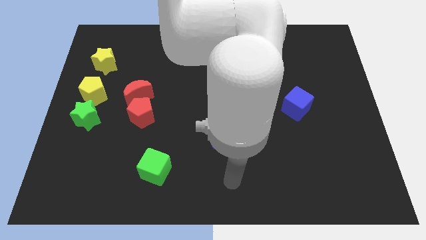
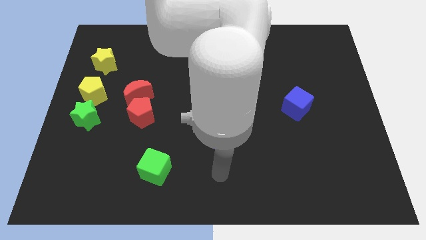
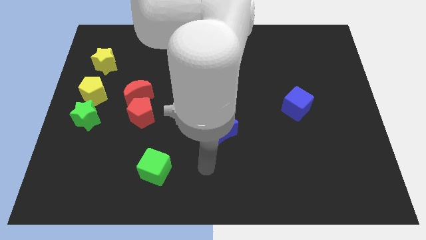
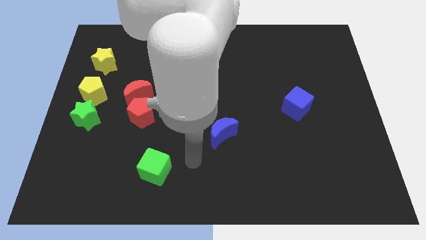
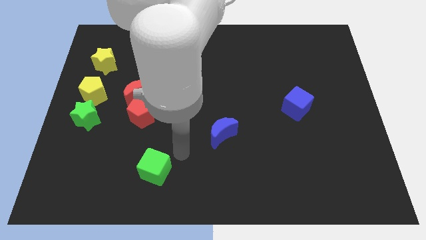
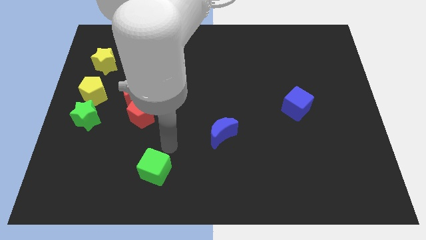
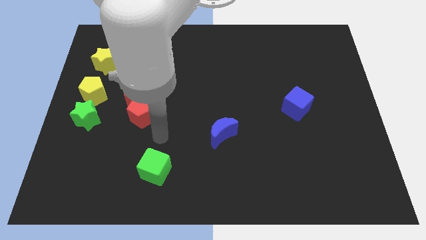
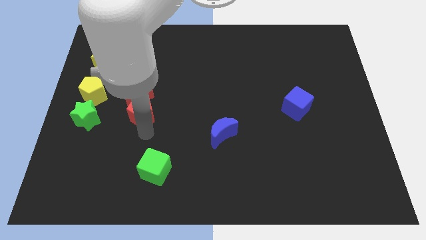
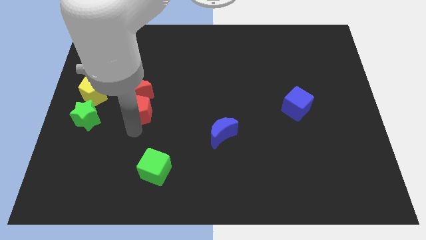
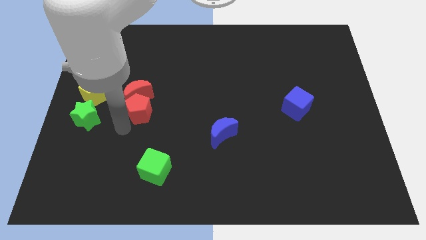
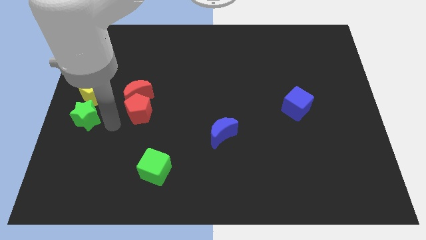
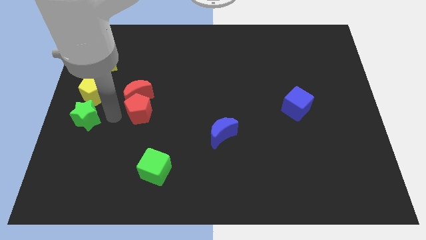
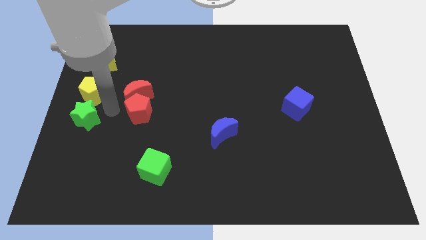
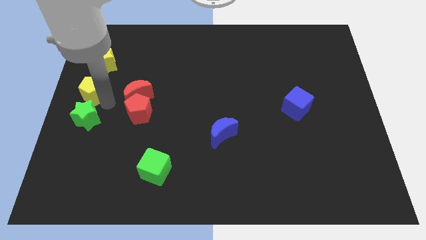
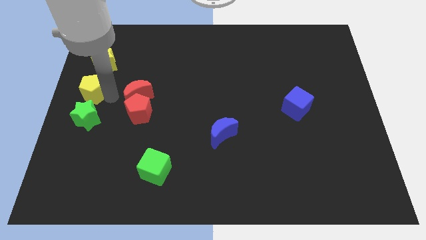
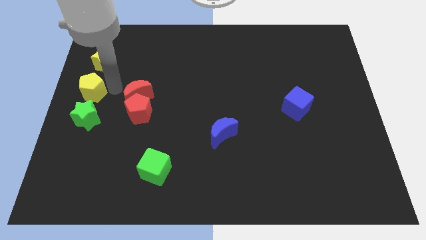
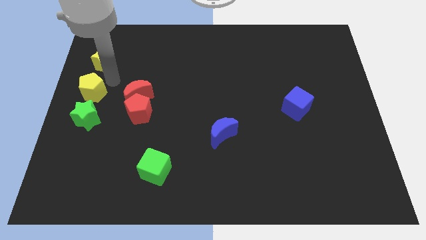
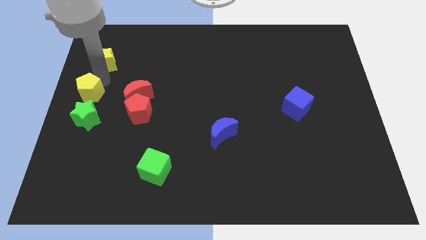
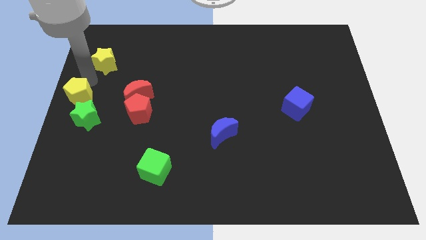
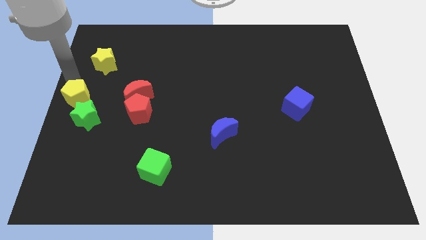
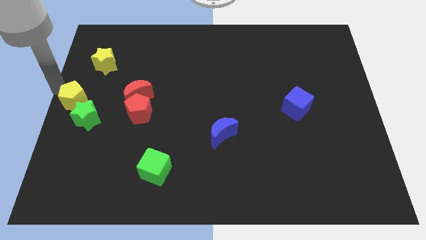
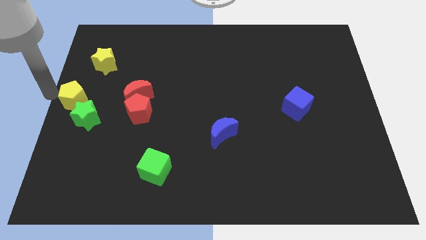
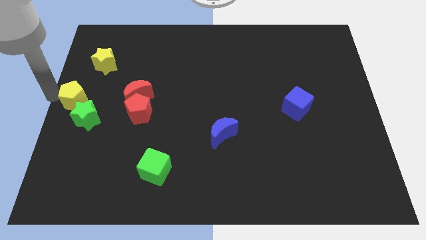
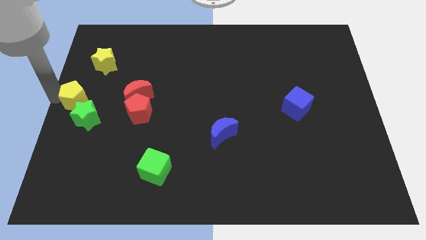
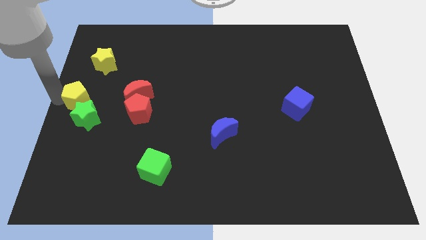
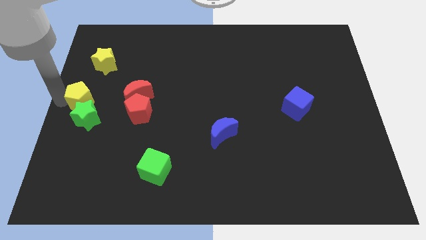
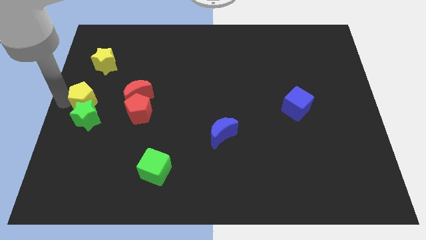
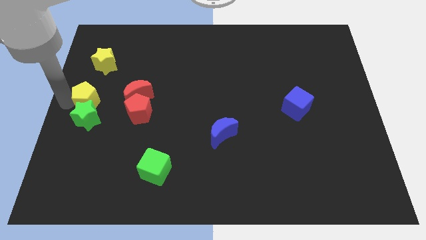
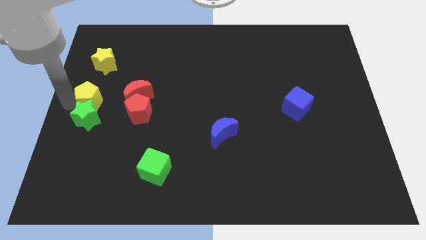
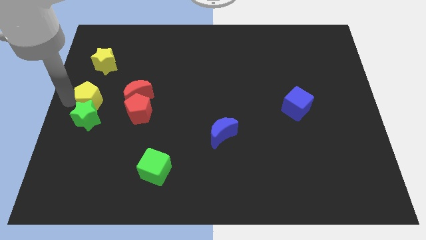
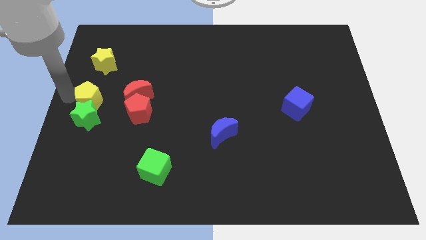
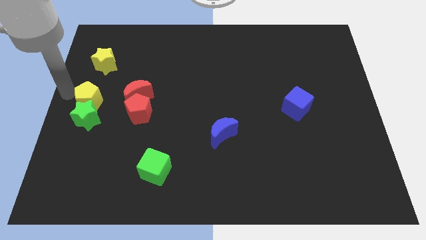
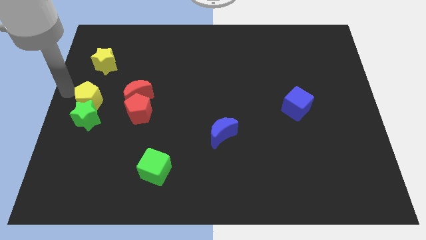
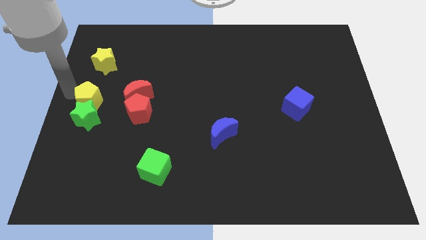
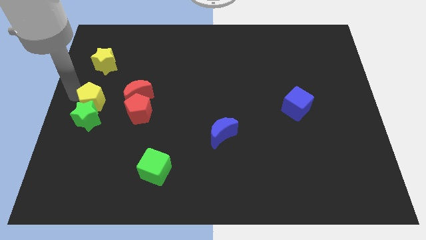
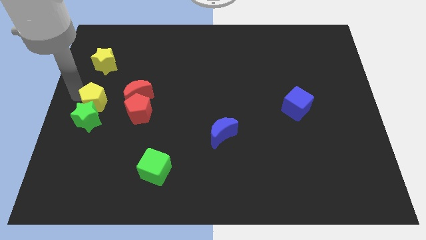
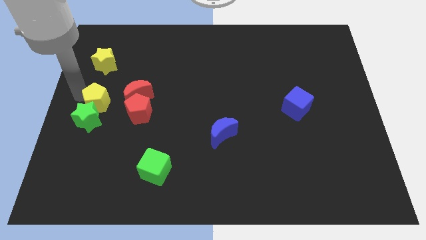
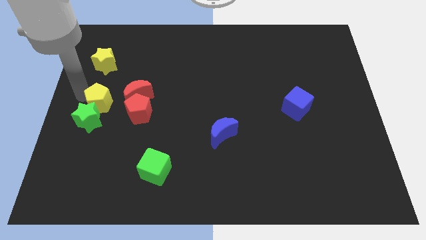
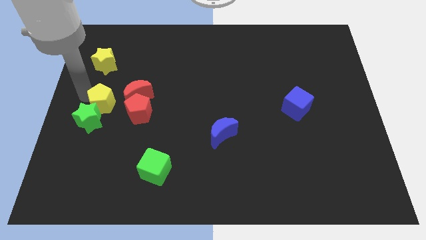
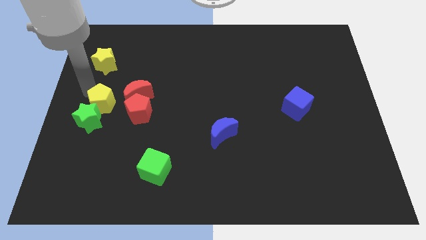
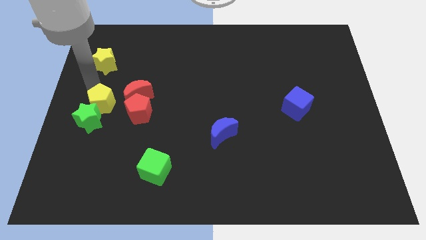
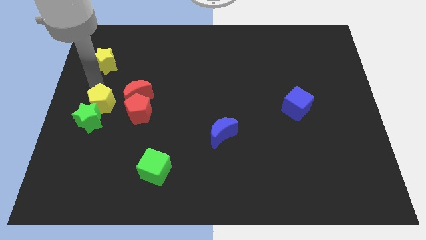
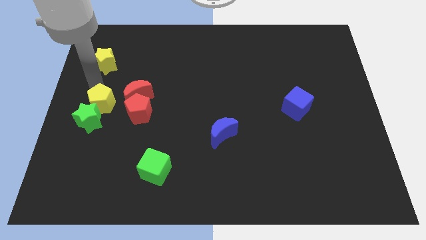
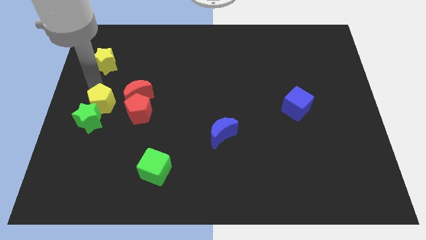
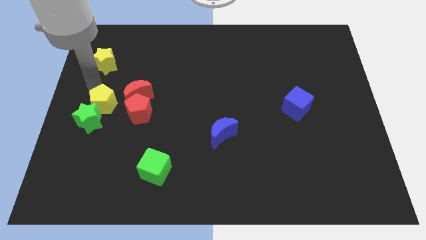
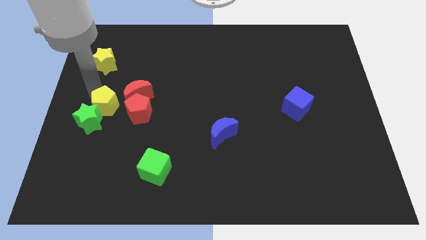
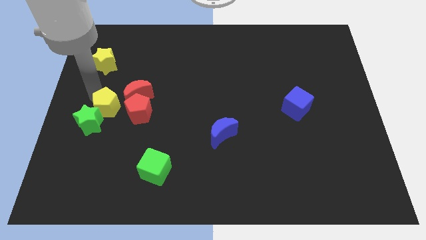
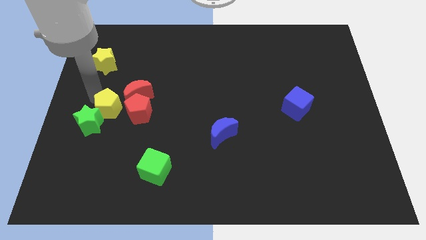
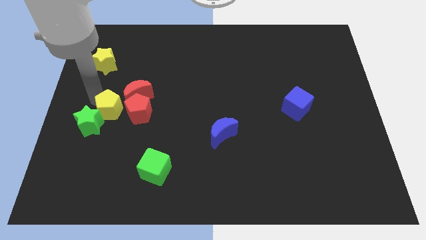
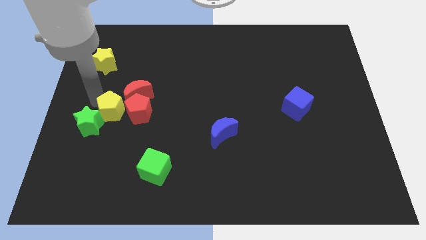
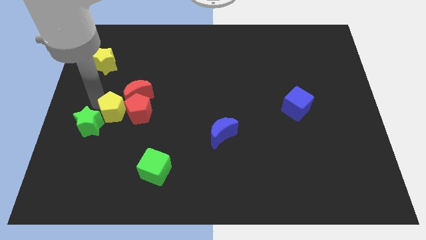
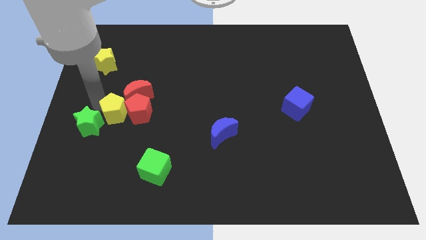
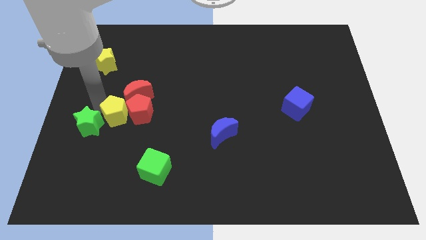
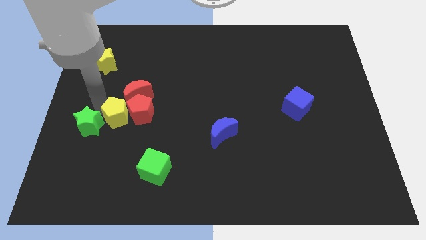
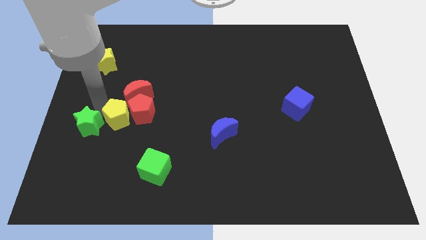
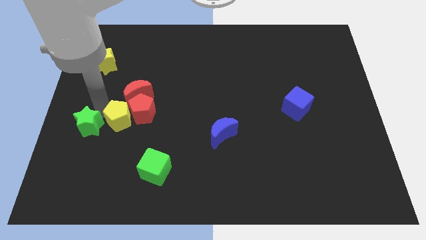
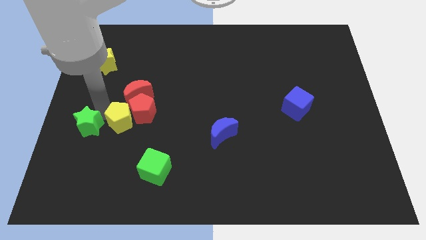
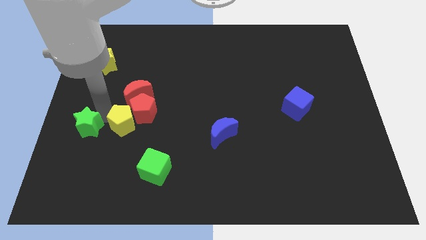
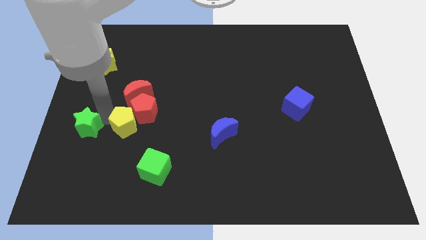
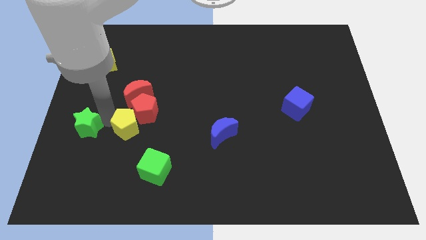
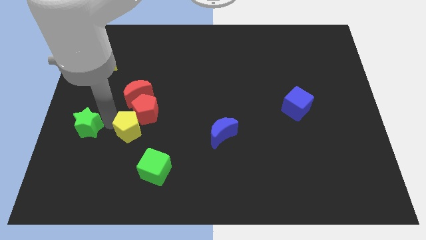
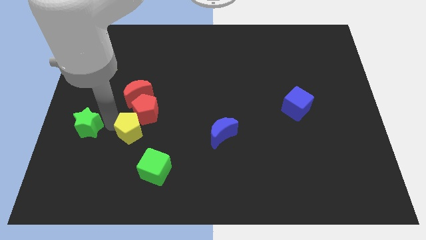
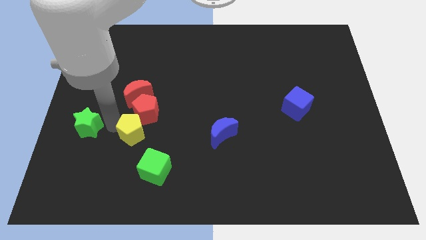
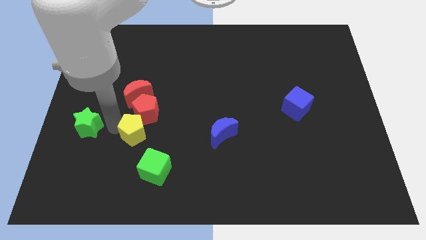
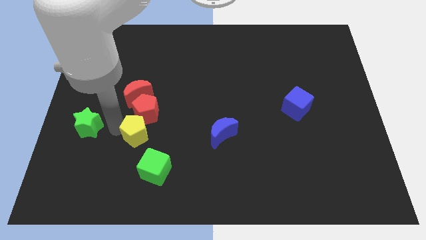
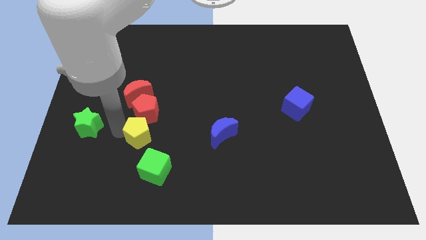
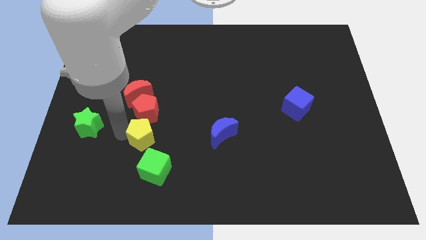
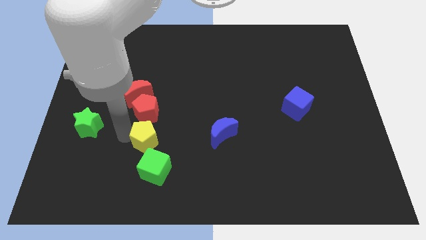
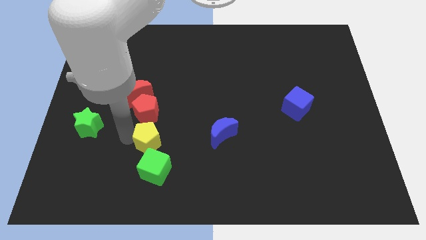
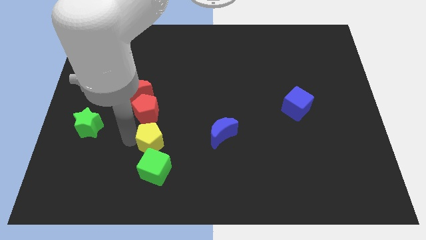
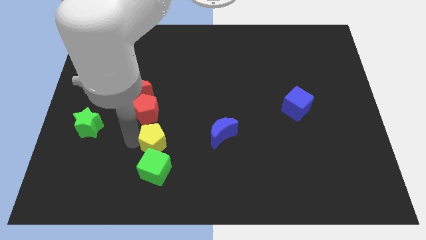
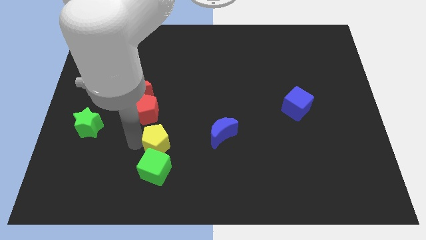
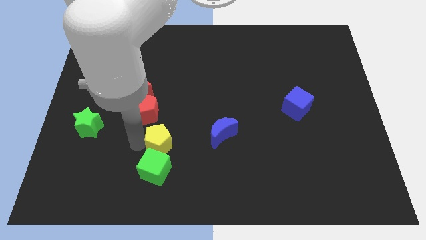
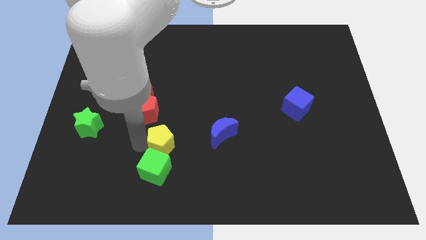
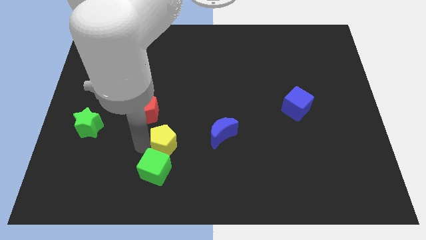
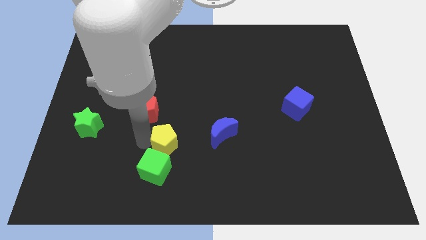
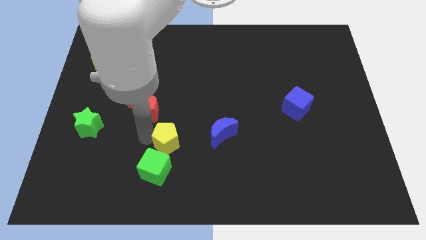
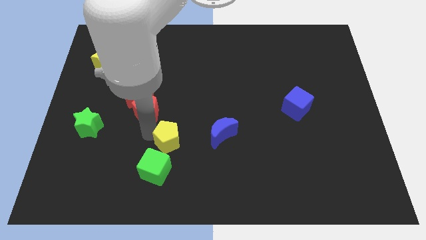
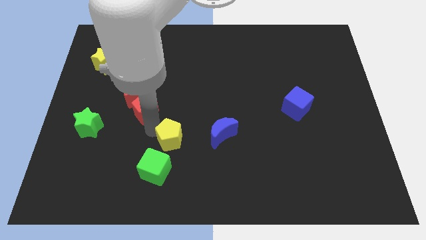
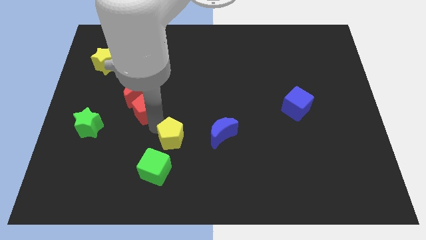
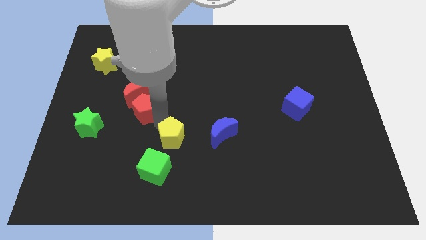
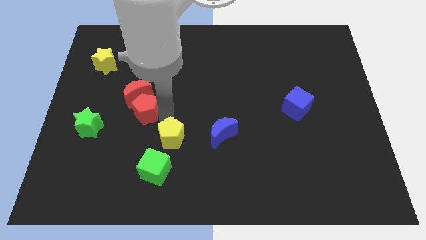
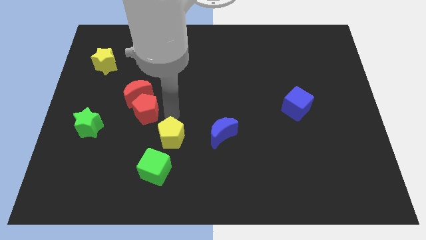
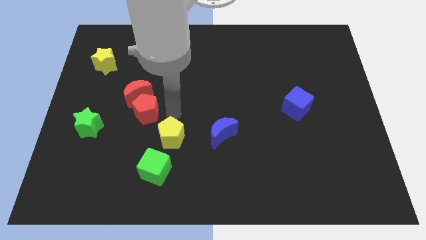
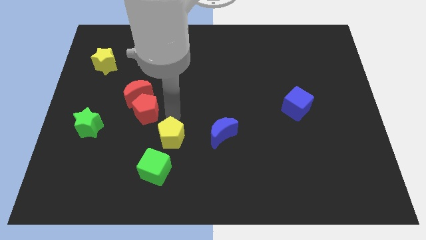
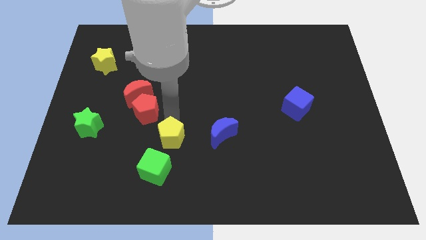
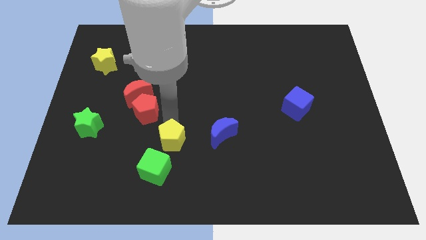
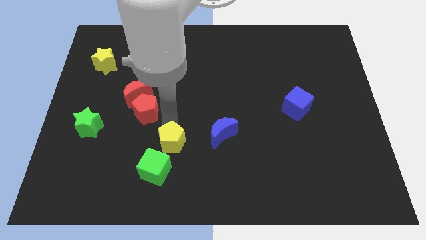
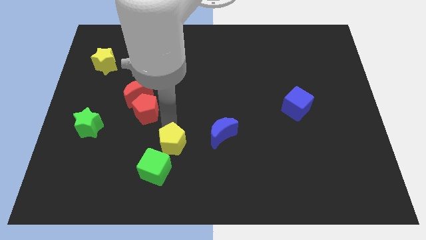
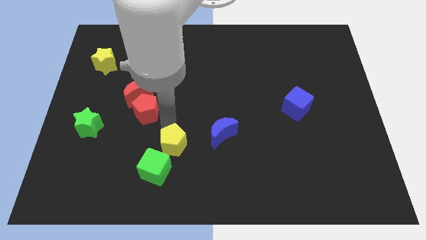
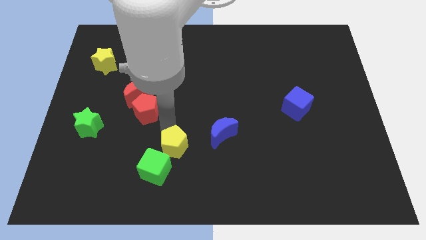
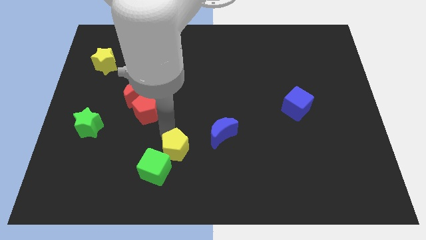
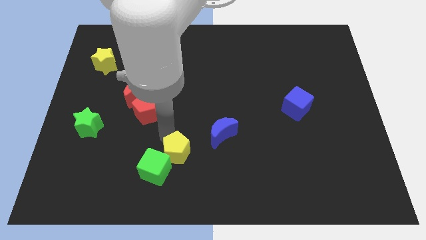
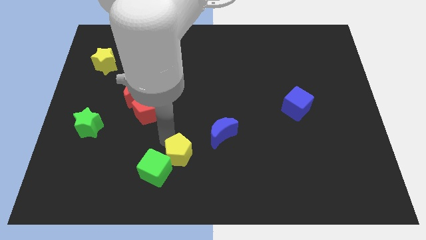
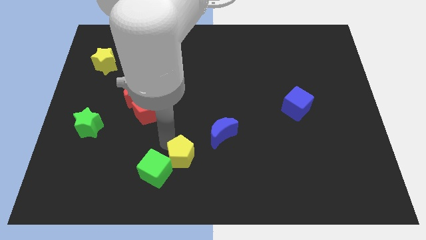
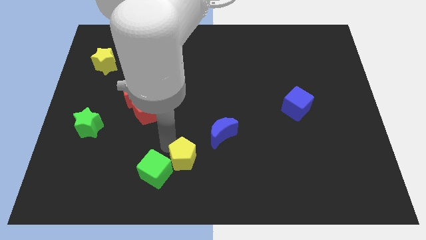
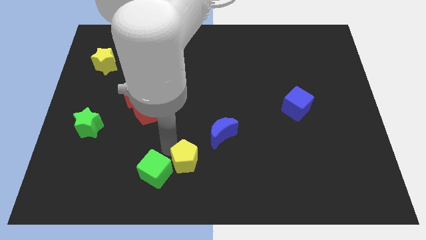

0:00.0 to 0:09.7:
push the yellow pentagon to the bottom
